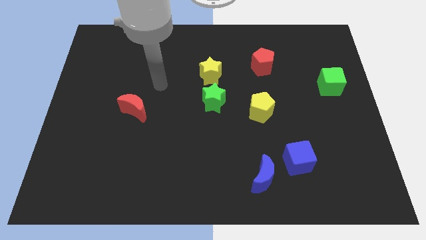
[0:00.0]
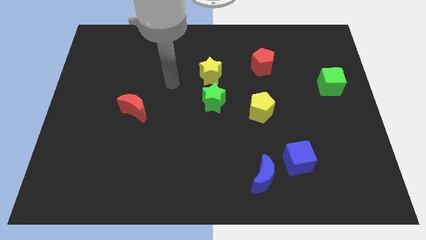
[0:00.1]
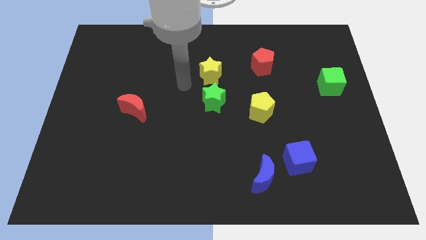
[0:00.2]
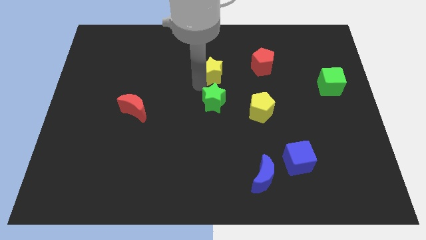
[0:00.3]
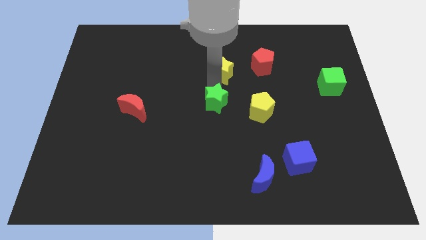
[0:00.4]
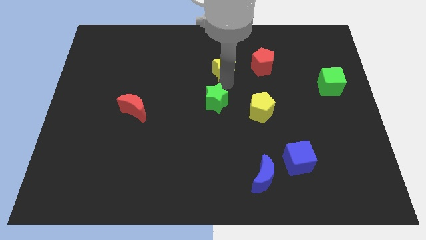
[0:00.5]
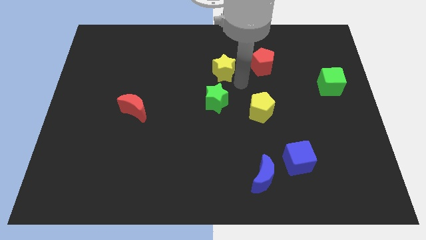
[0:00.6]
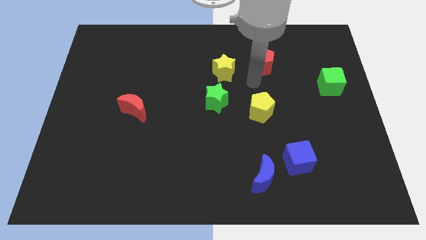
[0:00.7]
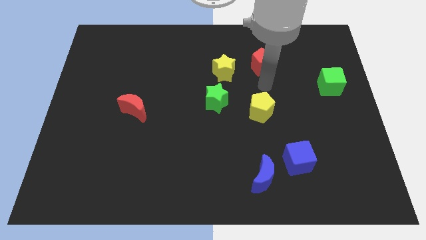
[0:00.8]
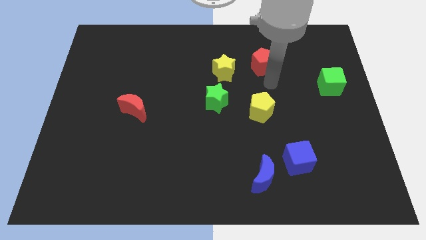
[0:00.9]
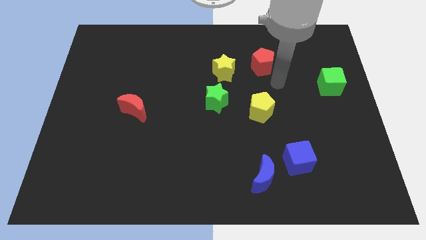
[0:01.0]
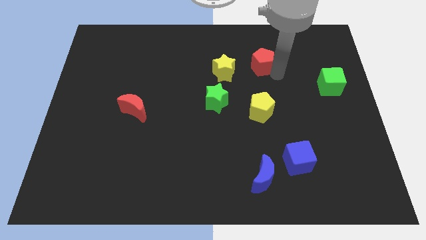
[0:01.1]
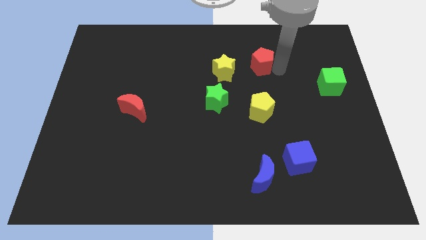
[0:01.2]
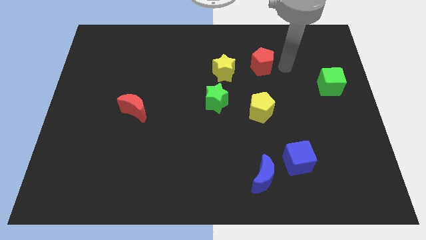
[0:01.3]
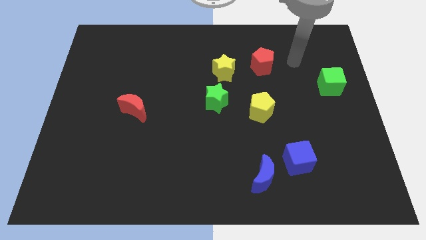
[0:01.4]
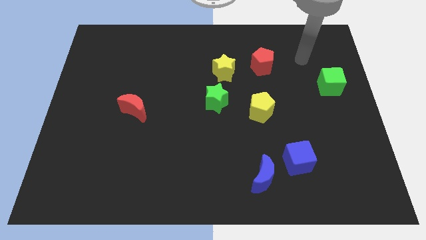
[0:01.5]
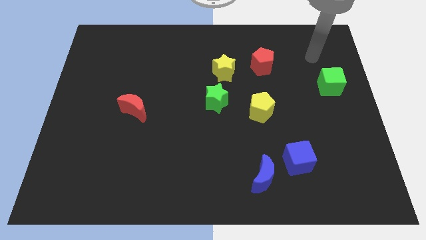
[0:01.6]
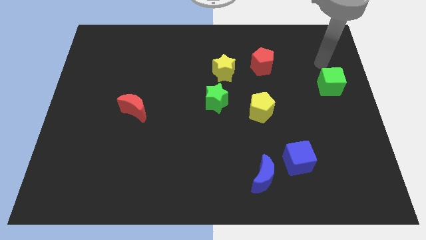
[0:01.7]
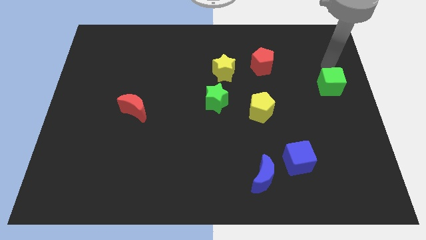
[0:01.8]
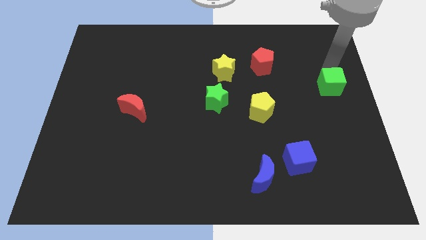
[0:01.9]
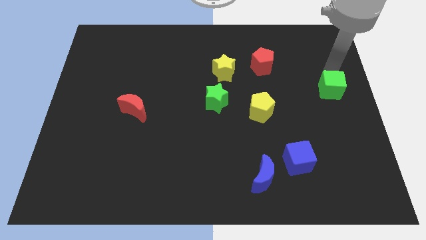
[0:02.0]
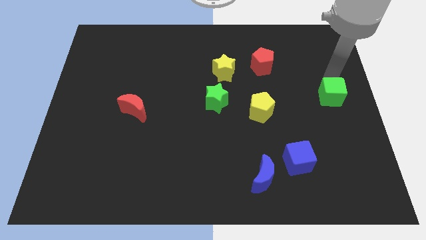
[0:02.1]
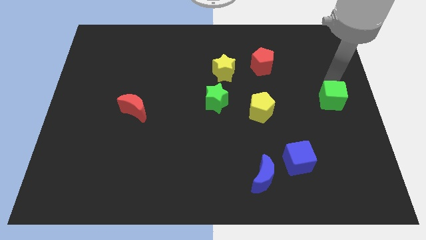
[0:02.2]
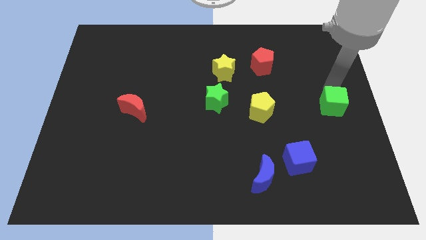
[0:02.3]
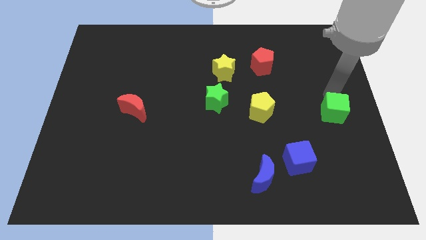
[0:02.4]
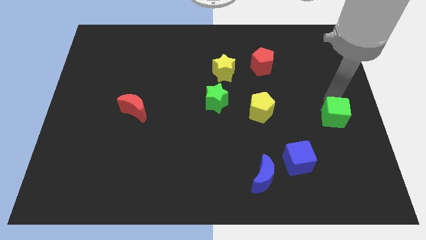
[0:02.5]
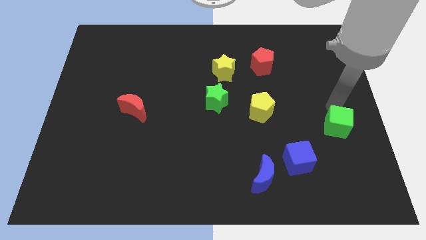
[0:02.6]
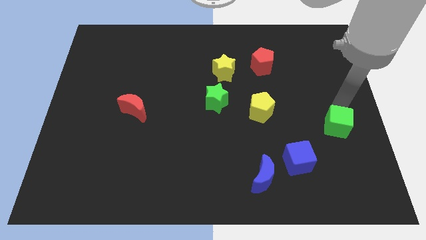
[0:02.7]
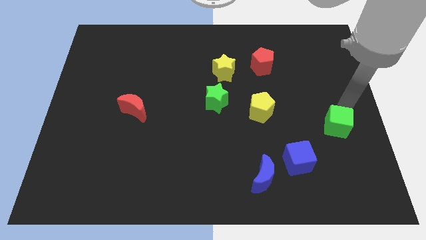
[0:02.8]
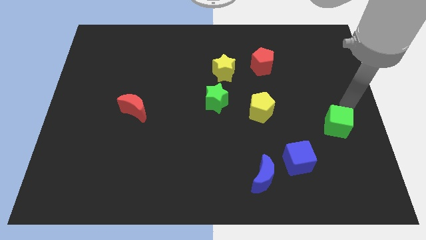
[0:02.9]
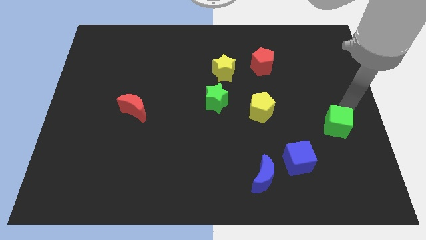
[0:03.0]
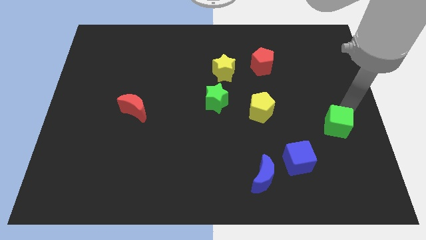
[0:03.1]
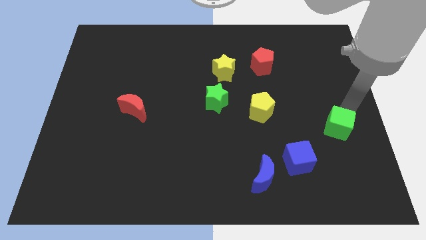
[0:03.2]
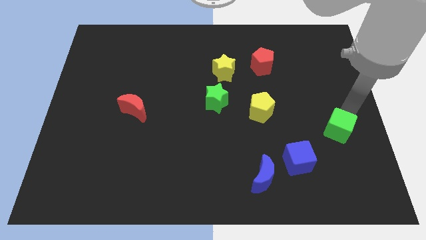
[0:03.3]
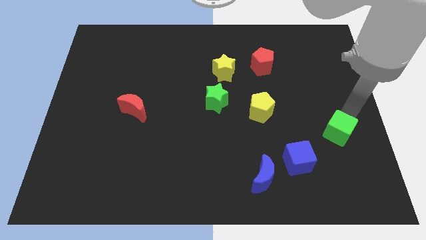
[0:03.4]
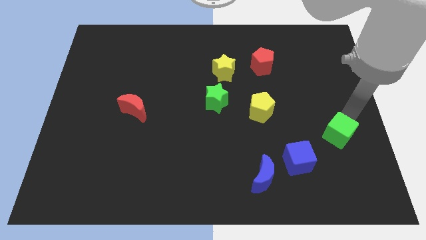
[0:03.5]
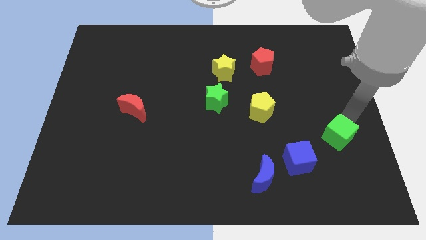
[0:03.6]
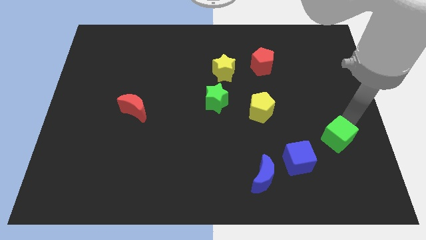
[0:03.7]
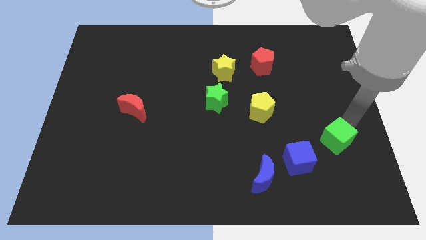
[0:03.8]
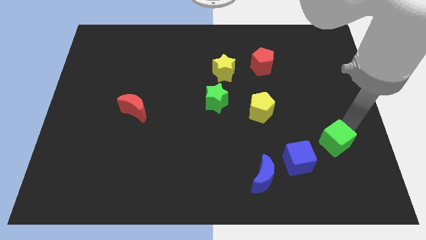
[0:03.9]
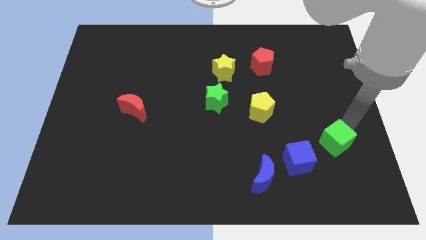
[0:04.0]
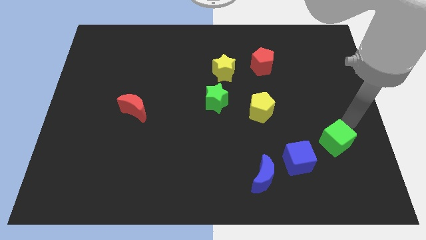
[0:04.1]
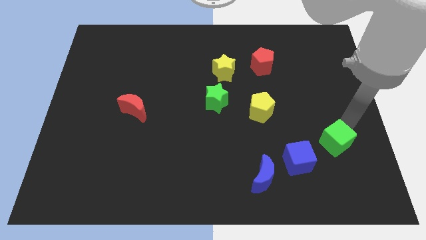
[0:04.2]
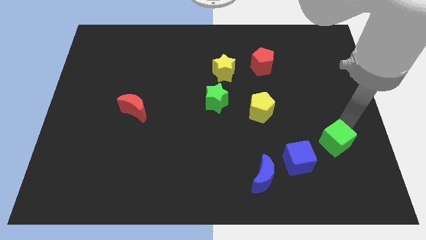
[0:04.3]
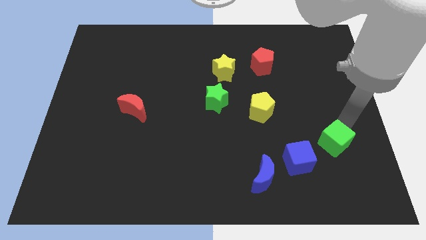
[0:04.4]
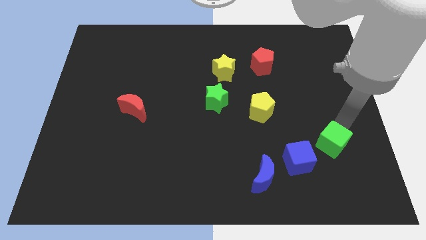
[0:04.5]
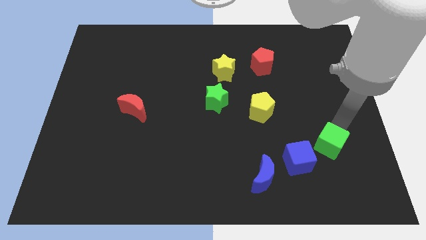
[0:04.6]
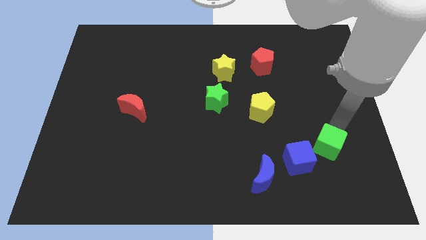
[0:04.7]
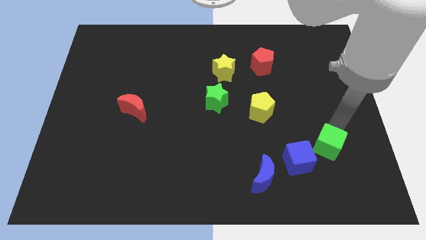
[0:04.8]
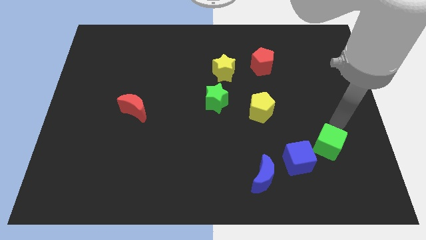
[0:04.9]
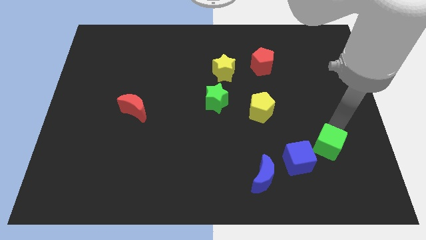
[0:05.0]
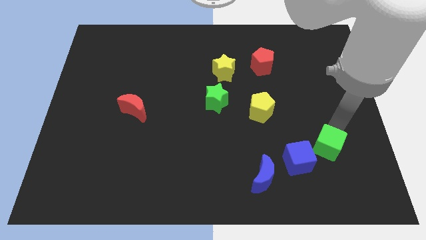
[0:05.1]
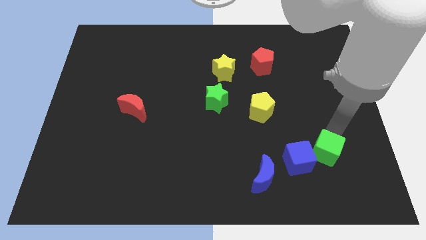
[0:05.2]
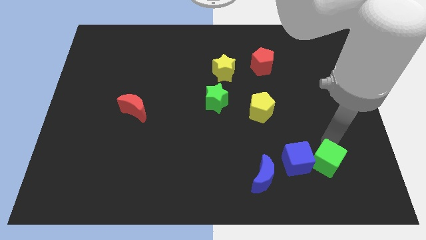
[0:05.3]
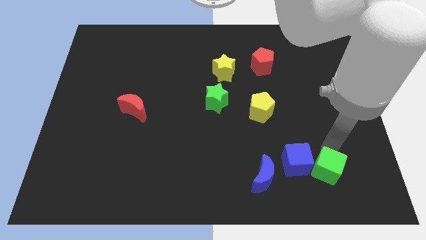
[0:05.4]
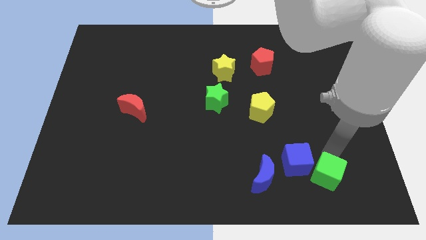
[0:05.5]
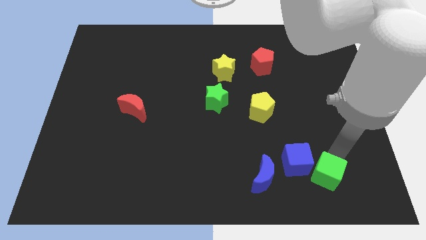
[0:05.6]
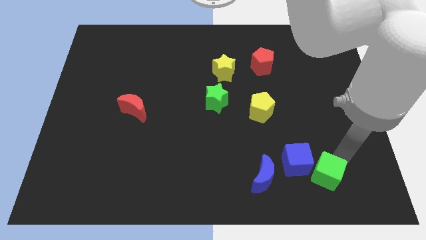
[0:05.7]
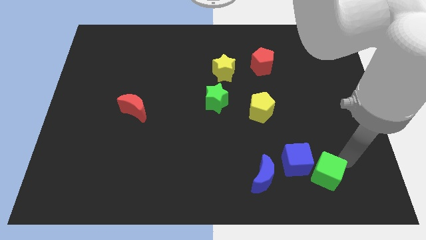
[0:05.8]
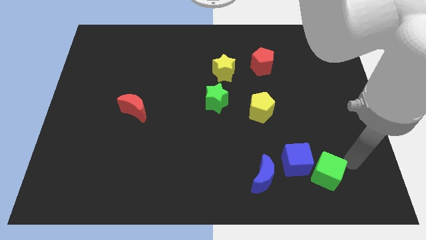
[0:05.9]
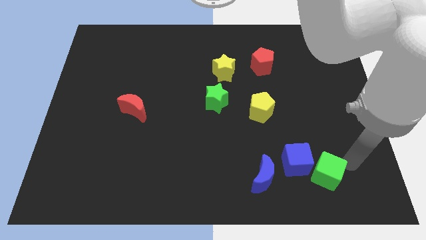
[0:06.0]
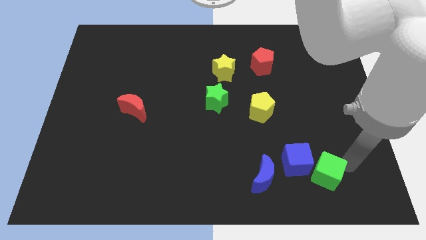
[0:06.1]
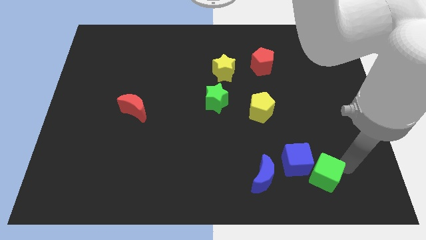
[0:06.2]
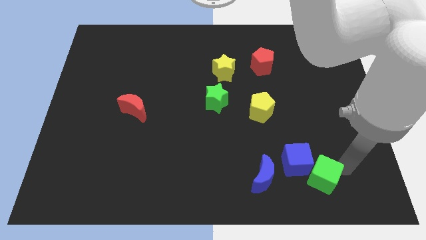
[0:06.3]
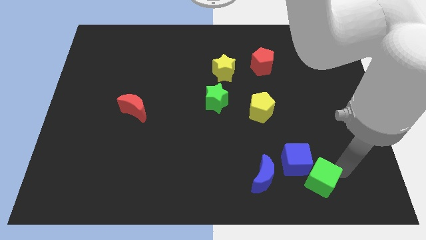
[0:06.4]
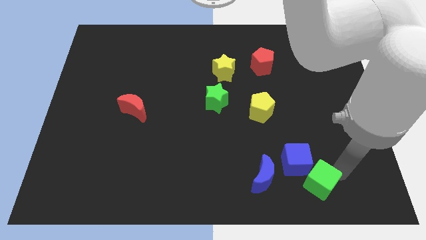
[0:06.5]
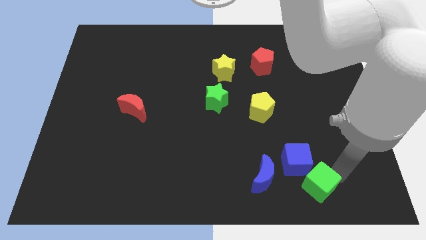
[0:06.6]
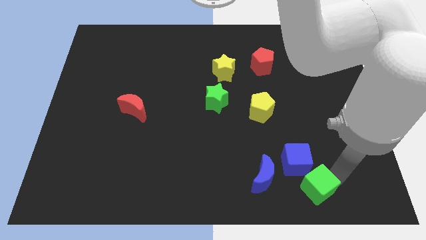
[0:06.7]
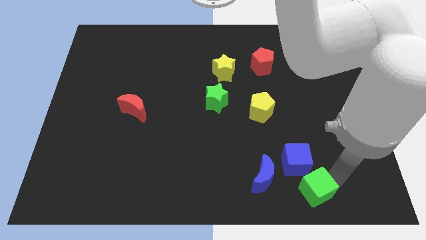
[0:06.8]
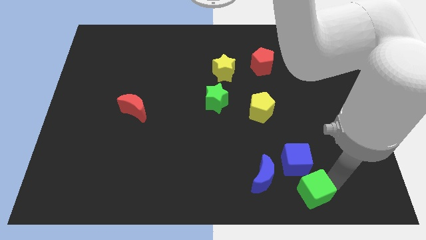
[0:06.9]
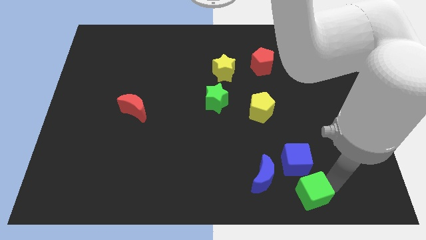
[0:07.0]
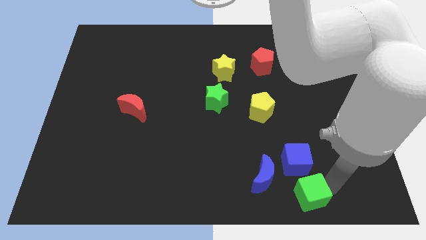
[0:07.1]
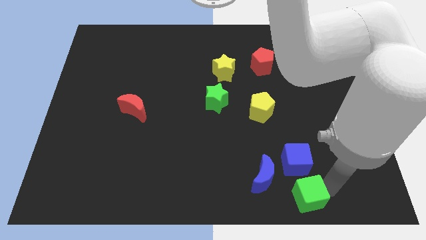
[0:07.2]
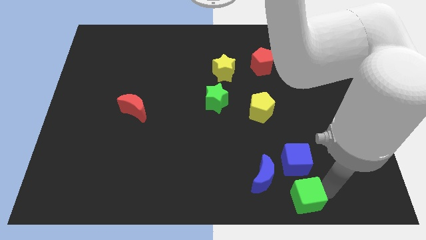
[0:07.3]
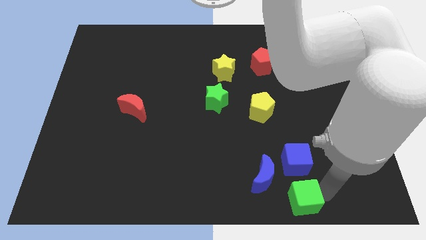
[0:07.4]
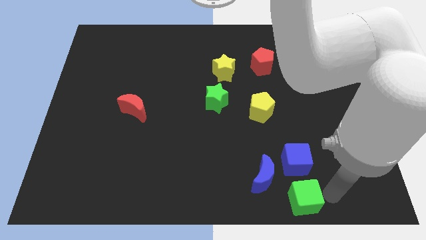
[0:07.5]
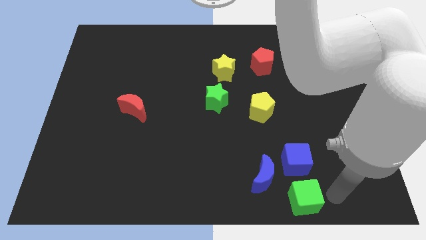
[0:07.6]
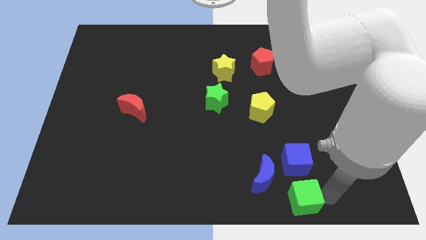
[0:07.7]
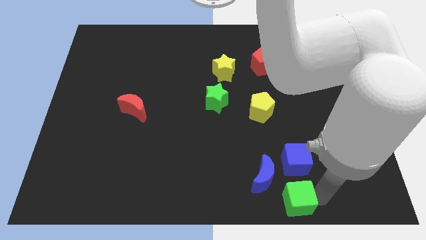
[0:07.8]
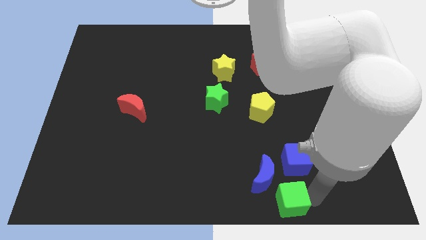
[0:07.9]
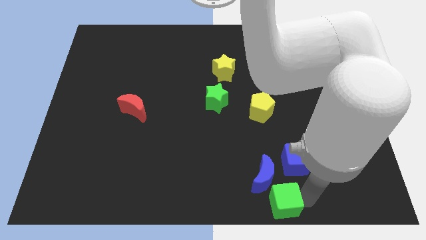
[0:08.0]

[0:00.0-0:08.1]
move the green cube to the bottom side
